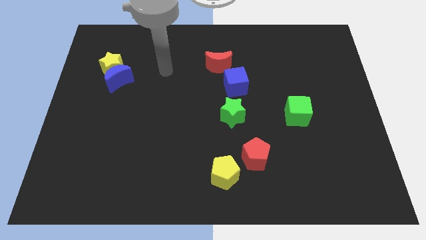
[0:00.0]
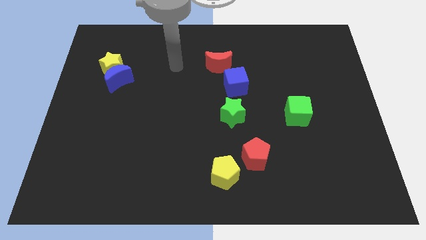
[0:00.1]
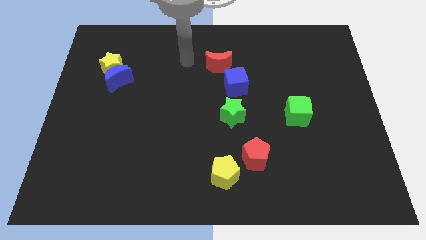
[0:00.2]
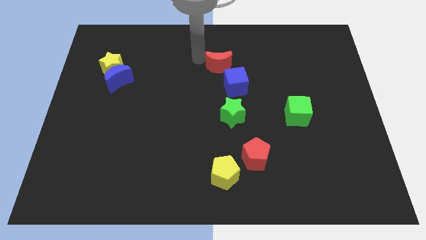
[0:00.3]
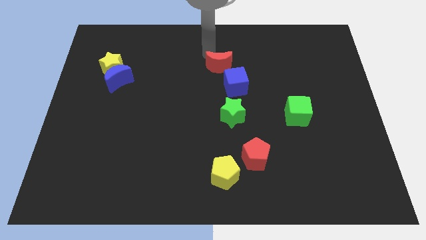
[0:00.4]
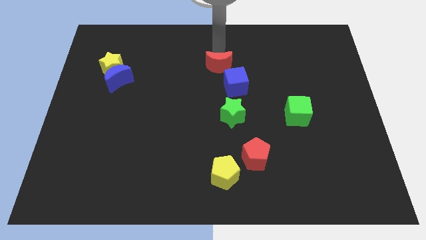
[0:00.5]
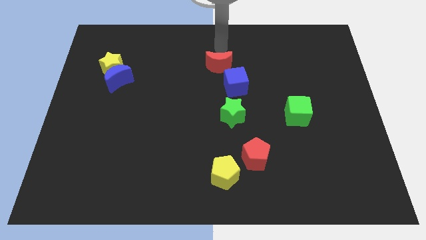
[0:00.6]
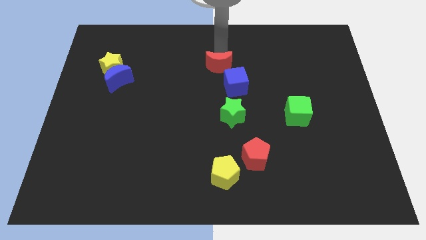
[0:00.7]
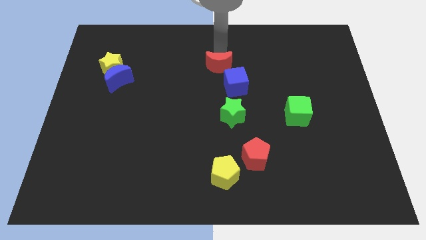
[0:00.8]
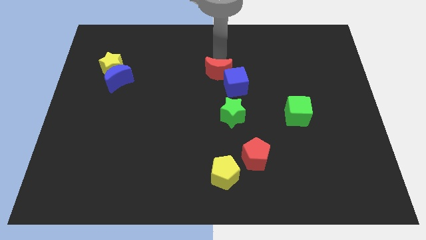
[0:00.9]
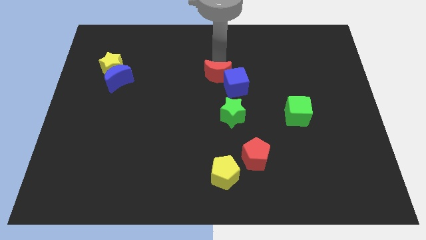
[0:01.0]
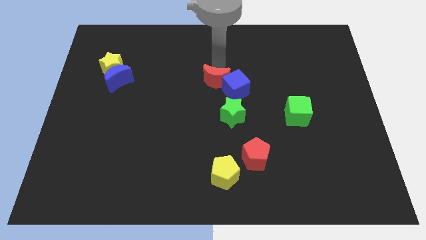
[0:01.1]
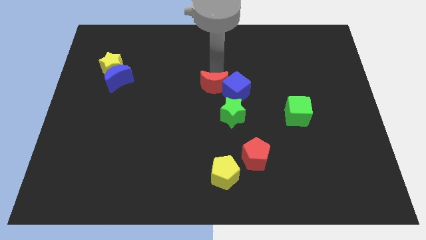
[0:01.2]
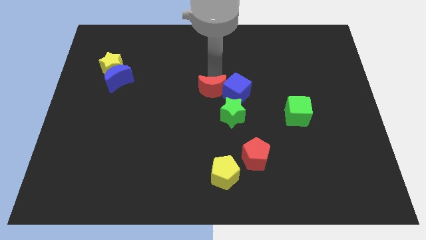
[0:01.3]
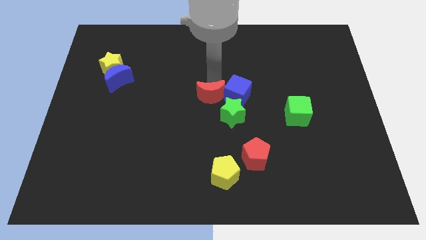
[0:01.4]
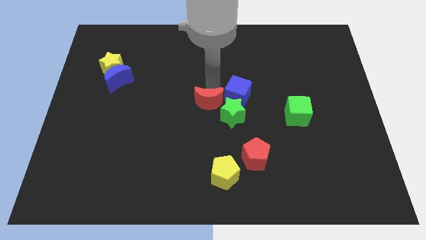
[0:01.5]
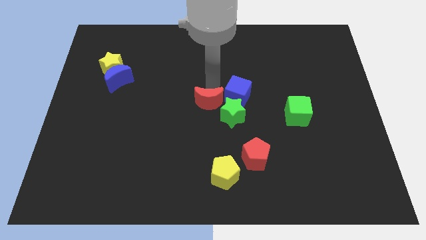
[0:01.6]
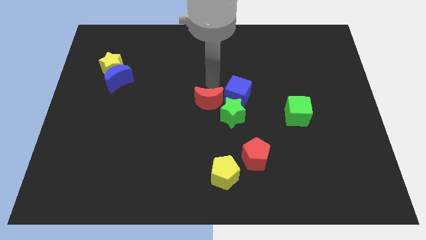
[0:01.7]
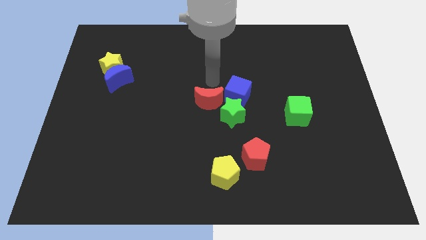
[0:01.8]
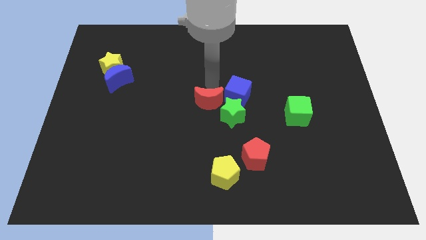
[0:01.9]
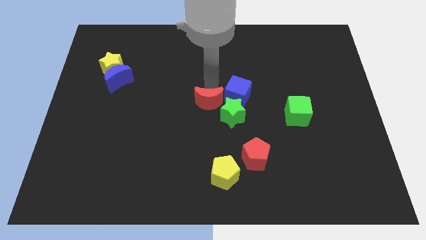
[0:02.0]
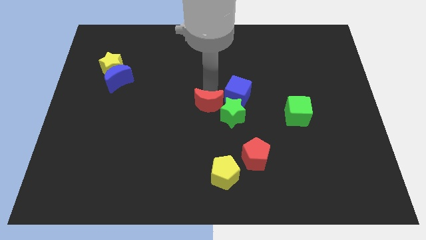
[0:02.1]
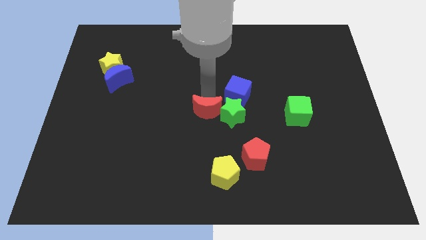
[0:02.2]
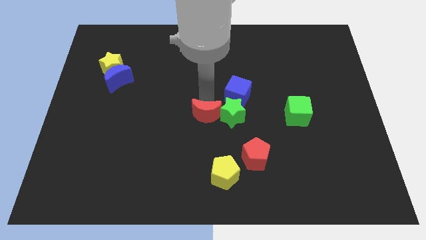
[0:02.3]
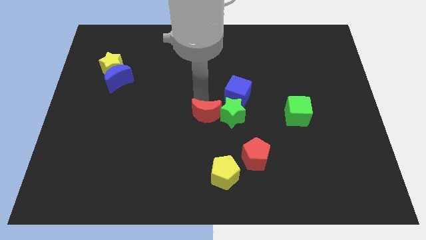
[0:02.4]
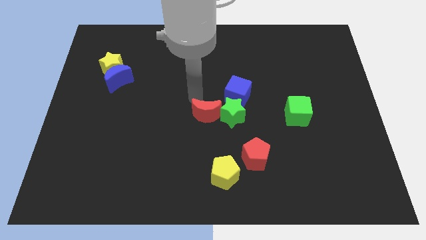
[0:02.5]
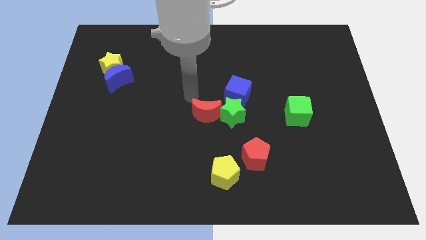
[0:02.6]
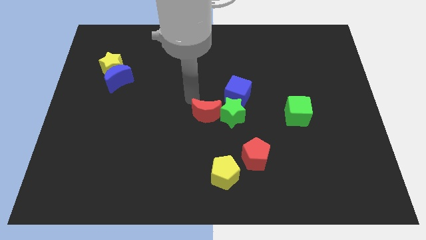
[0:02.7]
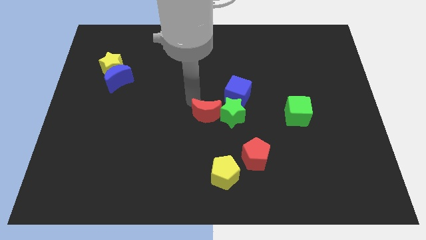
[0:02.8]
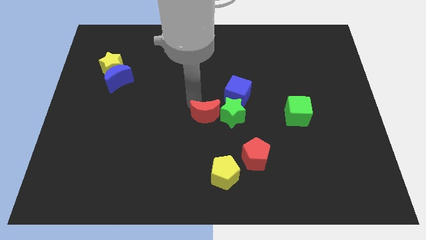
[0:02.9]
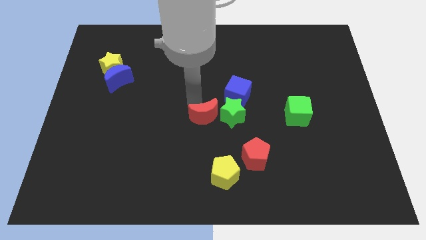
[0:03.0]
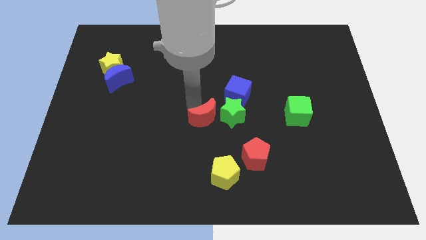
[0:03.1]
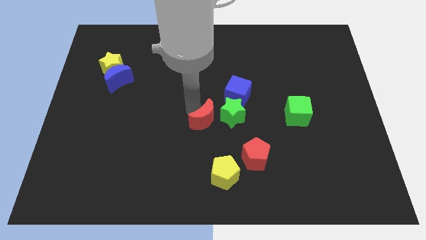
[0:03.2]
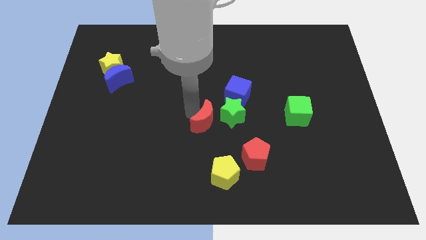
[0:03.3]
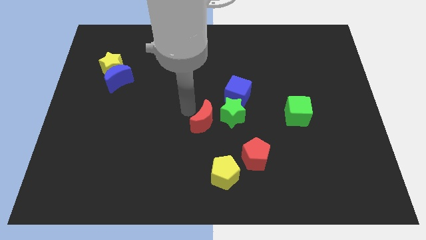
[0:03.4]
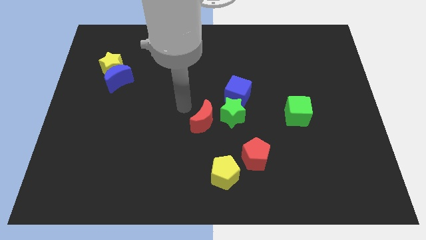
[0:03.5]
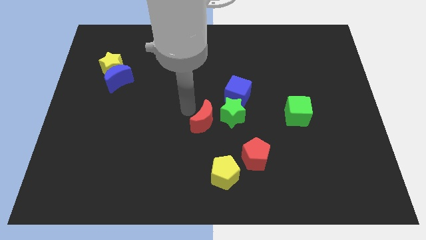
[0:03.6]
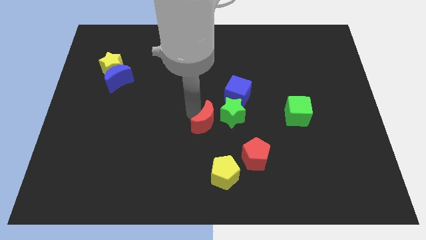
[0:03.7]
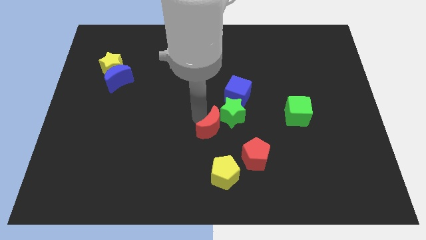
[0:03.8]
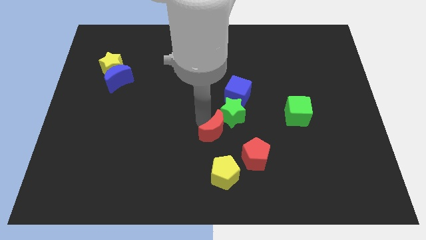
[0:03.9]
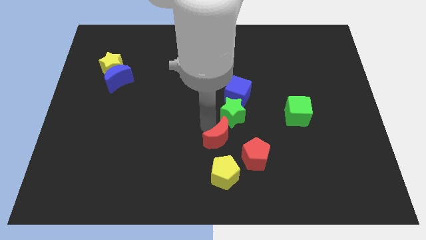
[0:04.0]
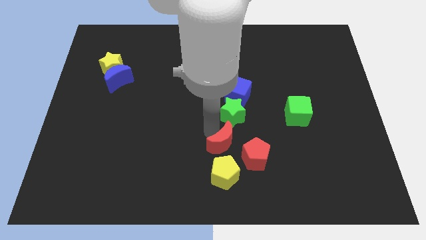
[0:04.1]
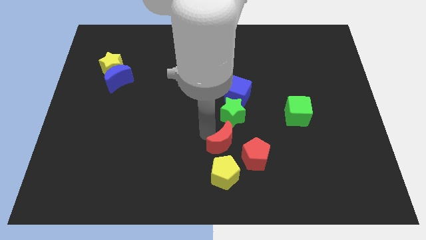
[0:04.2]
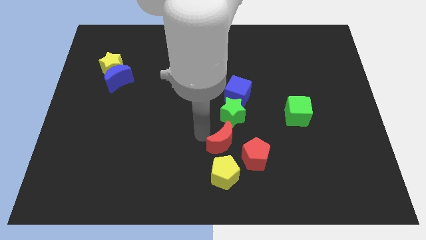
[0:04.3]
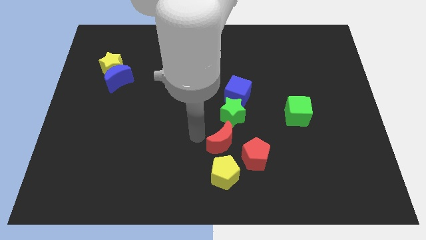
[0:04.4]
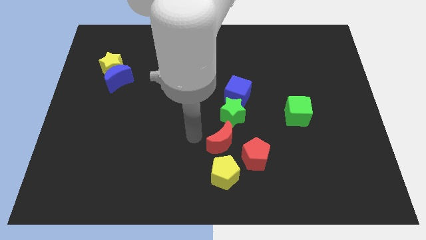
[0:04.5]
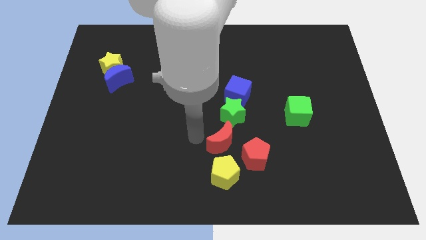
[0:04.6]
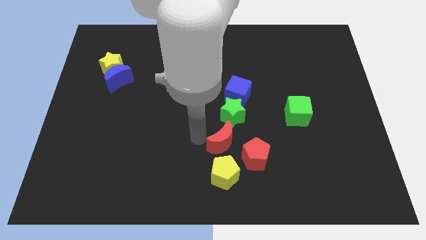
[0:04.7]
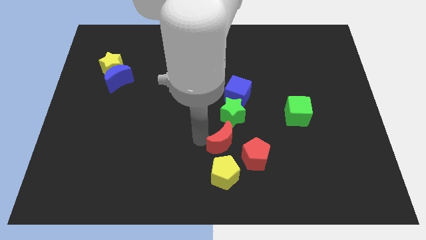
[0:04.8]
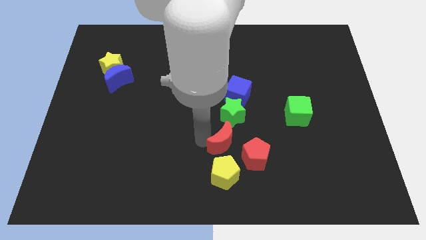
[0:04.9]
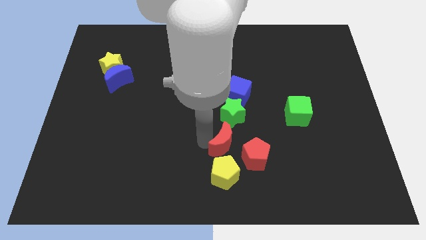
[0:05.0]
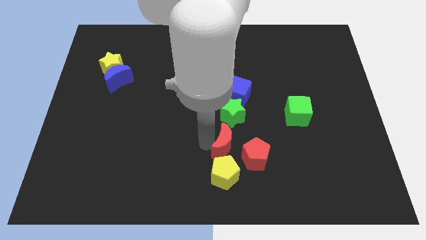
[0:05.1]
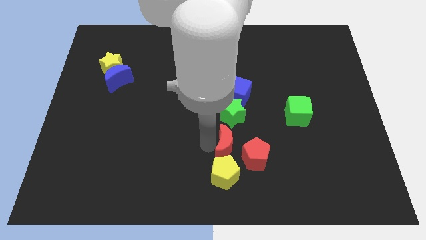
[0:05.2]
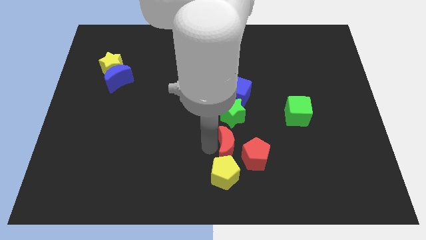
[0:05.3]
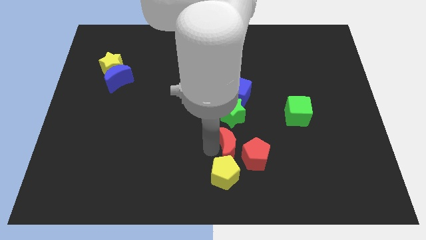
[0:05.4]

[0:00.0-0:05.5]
put the red moon towards the red pentagon

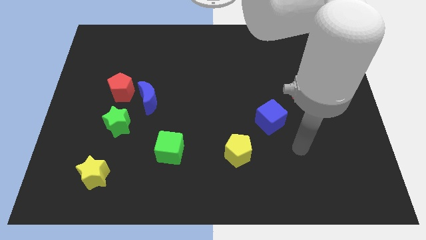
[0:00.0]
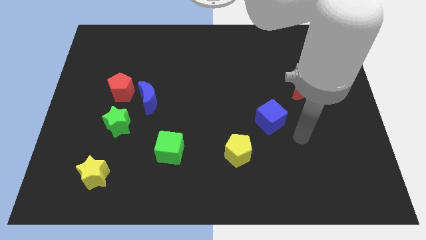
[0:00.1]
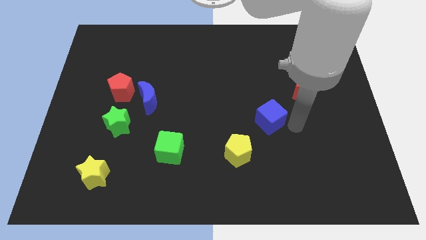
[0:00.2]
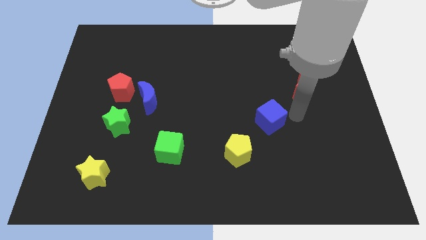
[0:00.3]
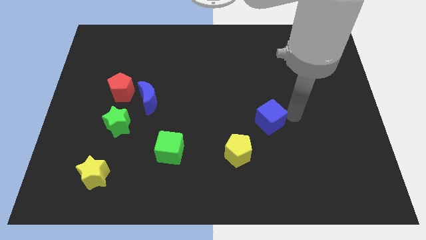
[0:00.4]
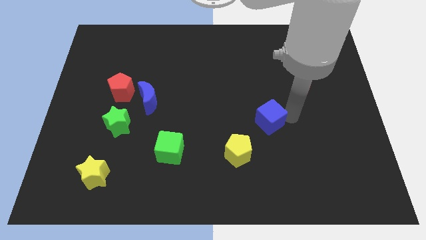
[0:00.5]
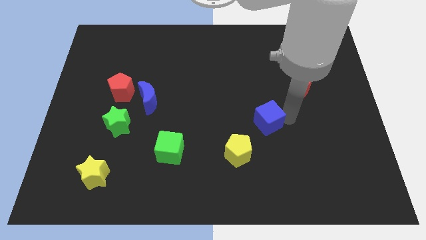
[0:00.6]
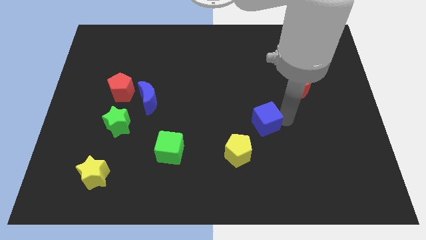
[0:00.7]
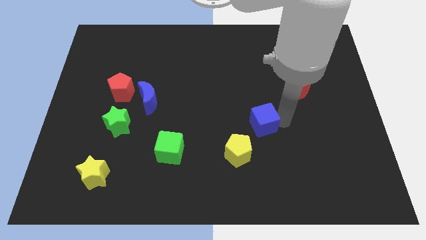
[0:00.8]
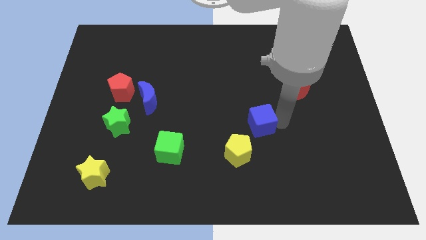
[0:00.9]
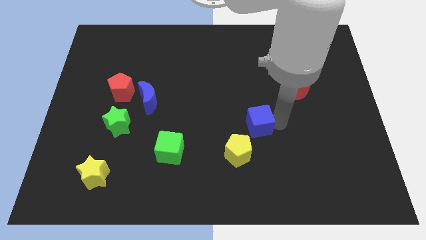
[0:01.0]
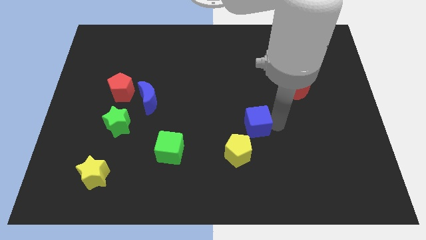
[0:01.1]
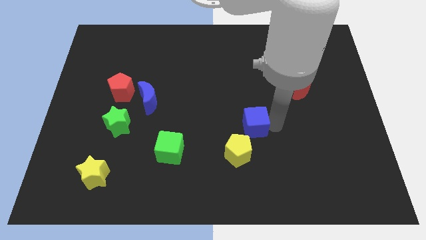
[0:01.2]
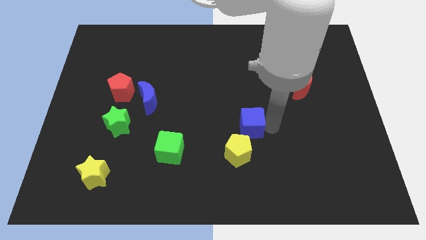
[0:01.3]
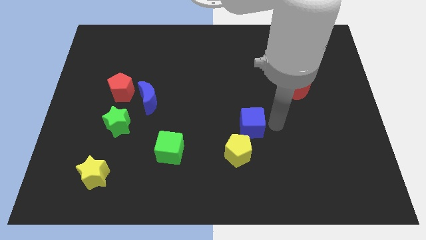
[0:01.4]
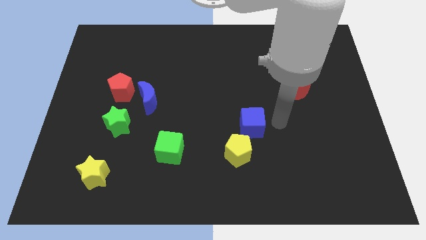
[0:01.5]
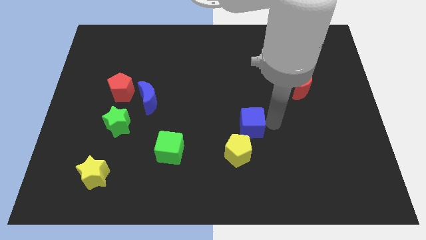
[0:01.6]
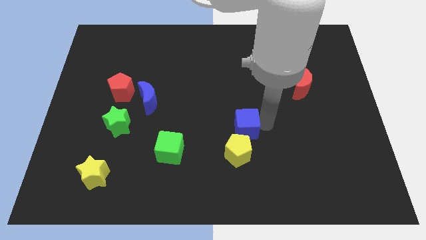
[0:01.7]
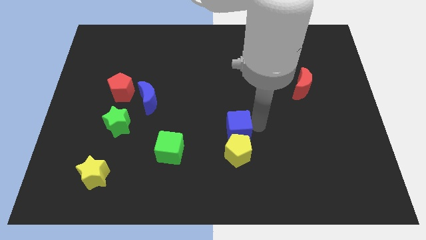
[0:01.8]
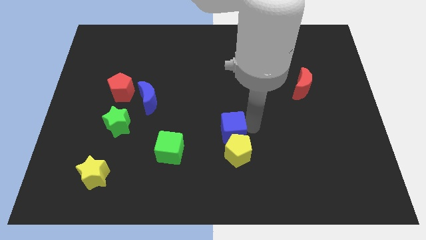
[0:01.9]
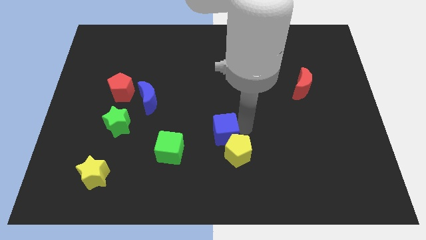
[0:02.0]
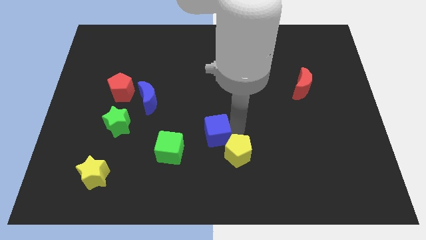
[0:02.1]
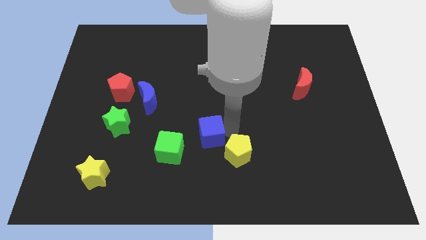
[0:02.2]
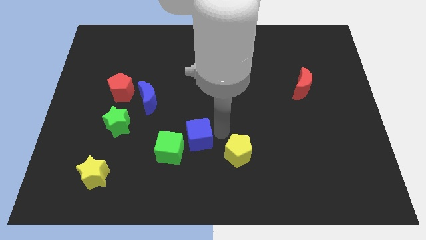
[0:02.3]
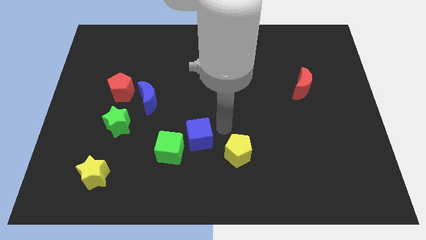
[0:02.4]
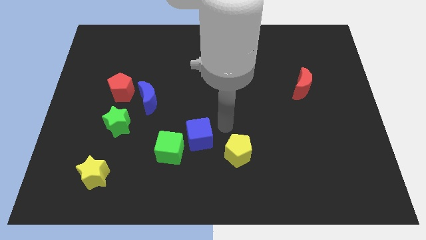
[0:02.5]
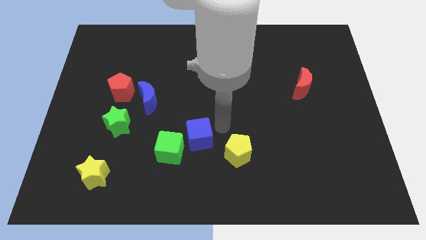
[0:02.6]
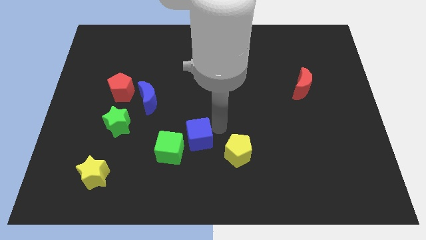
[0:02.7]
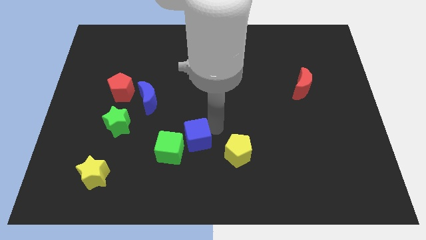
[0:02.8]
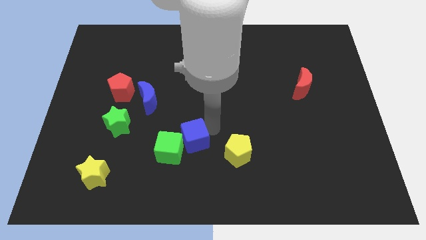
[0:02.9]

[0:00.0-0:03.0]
move the blue cube to the green cube
